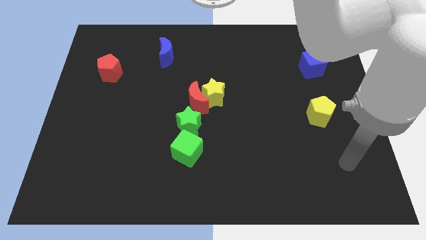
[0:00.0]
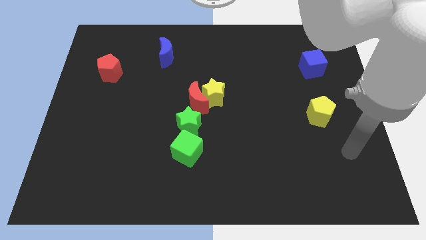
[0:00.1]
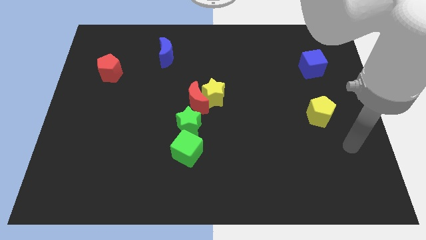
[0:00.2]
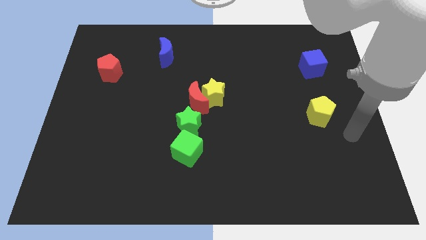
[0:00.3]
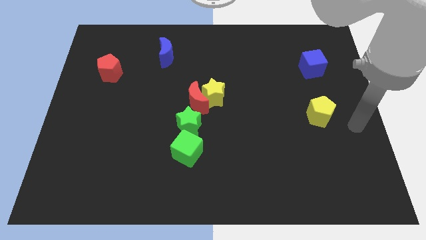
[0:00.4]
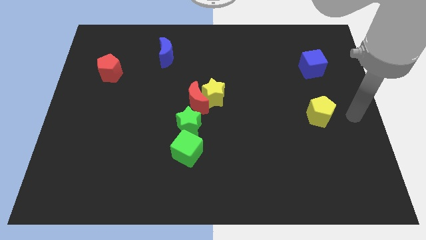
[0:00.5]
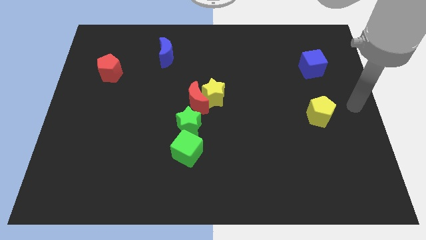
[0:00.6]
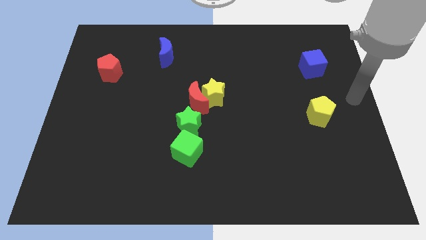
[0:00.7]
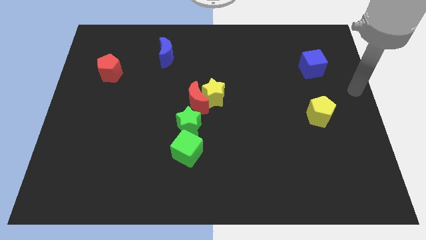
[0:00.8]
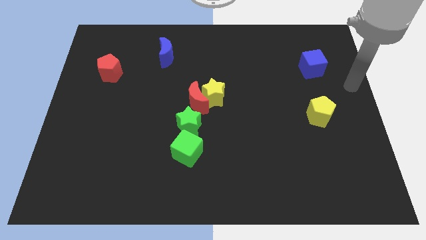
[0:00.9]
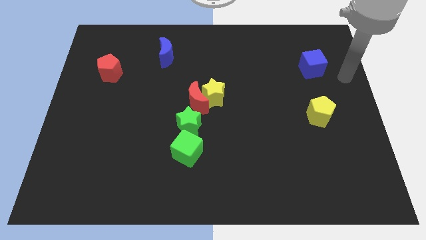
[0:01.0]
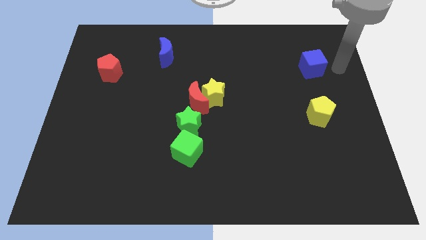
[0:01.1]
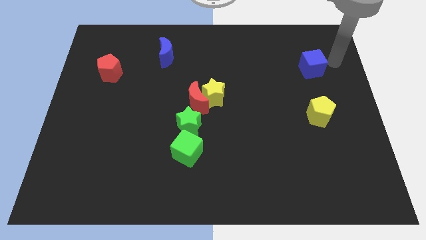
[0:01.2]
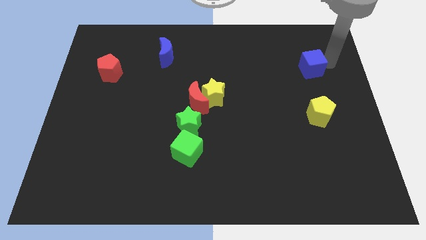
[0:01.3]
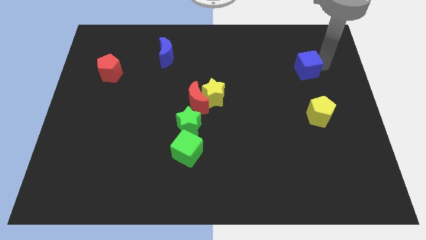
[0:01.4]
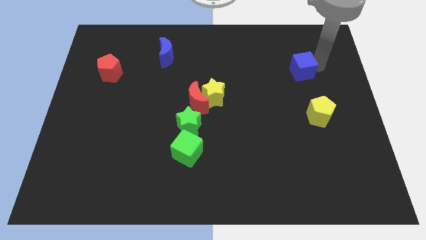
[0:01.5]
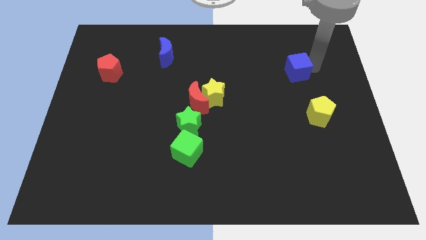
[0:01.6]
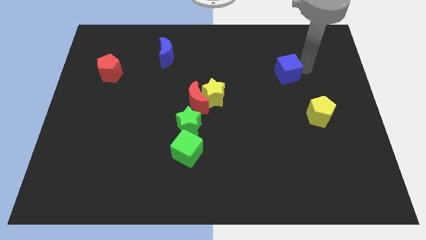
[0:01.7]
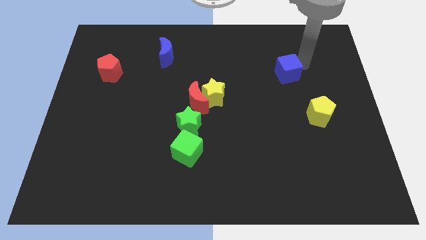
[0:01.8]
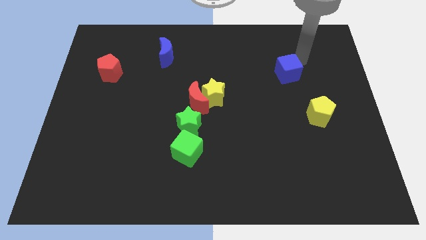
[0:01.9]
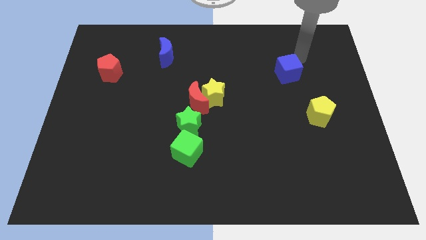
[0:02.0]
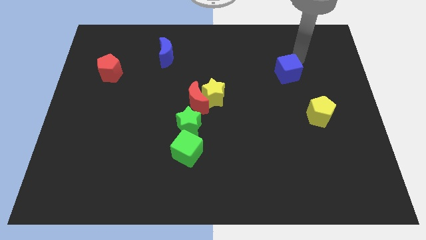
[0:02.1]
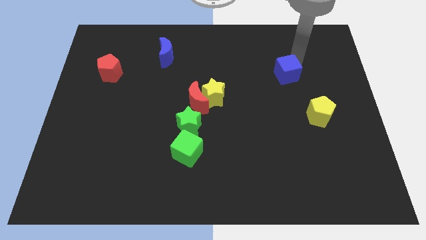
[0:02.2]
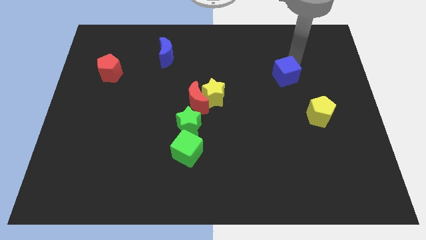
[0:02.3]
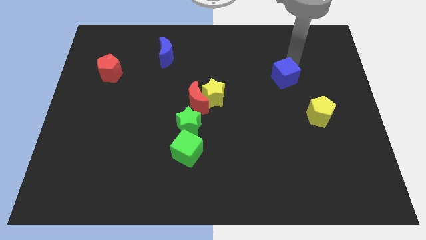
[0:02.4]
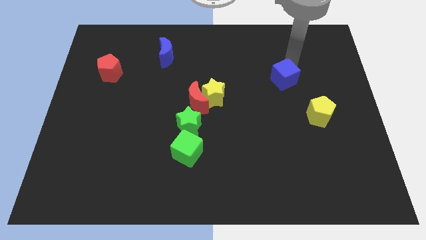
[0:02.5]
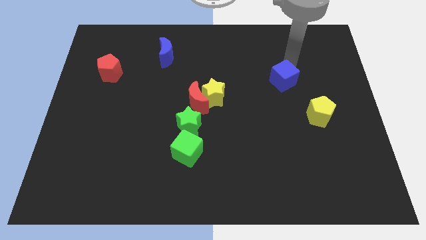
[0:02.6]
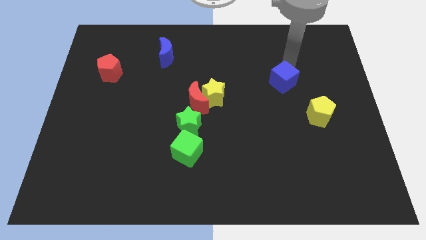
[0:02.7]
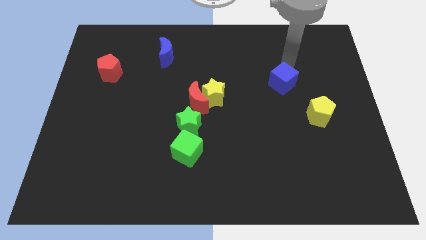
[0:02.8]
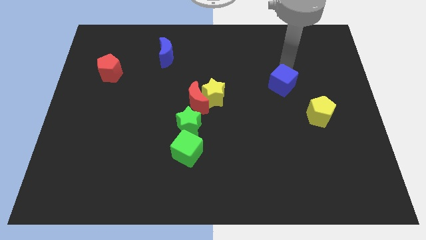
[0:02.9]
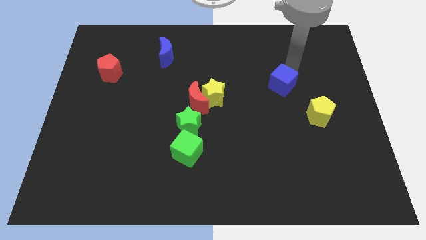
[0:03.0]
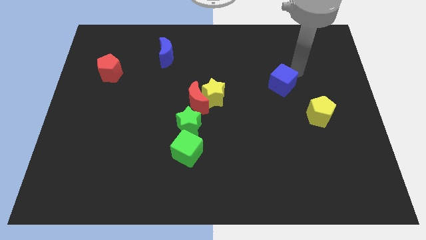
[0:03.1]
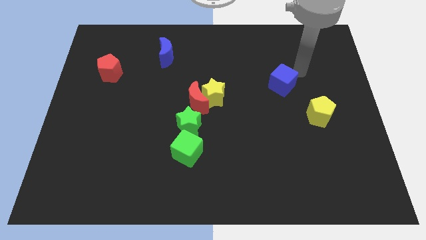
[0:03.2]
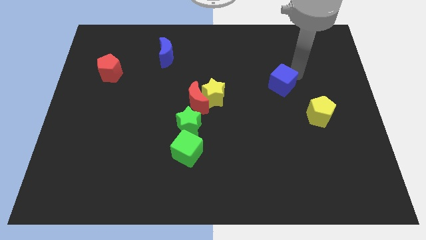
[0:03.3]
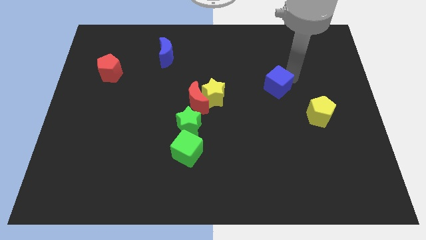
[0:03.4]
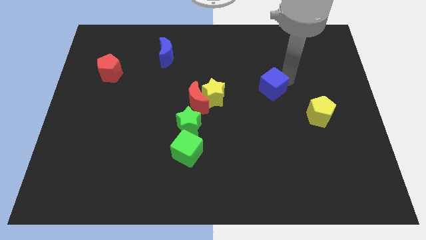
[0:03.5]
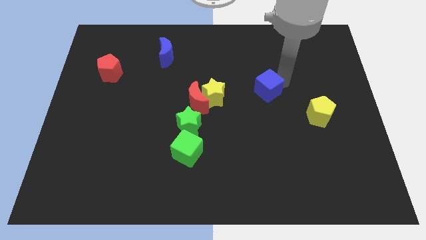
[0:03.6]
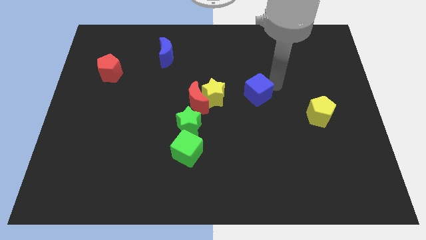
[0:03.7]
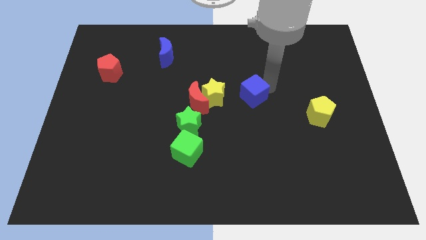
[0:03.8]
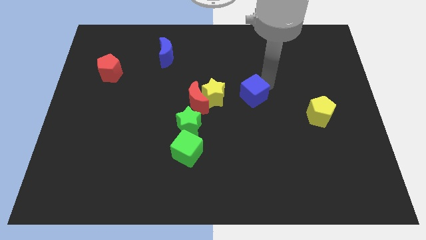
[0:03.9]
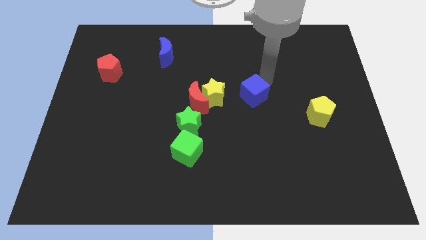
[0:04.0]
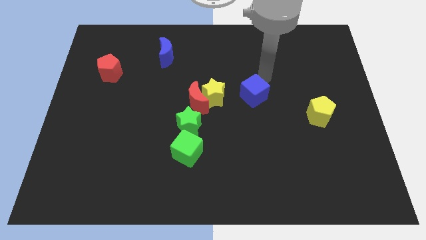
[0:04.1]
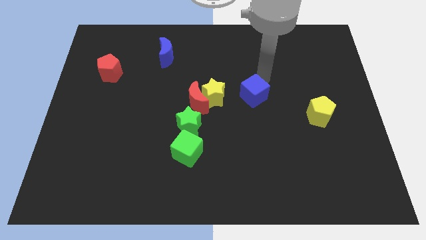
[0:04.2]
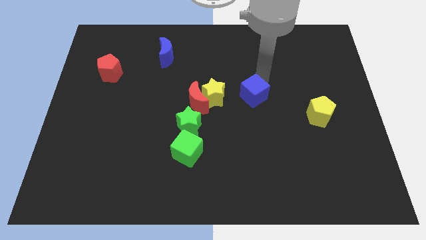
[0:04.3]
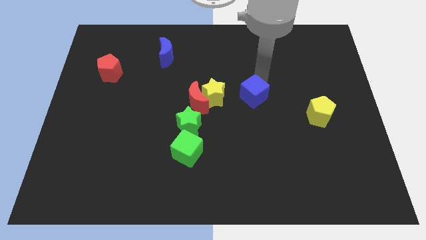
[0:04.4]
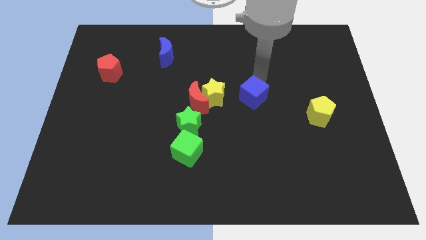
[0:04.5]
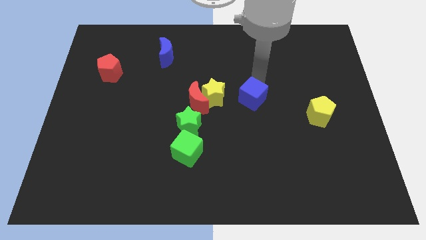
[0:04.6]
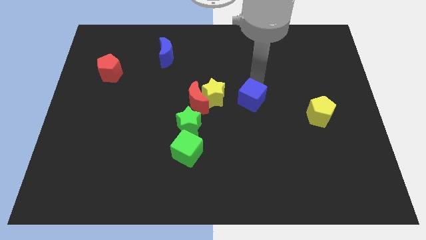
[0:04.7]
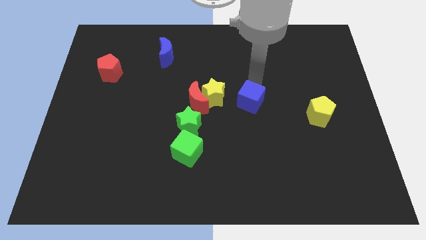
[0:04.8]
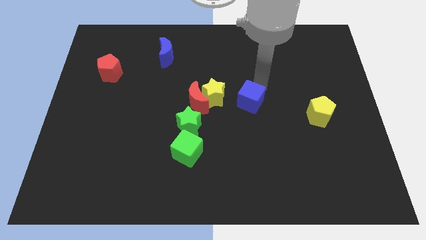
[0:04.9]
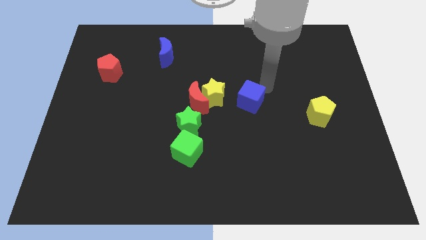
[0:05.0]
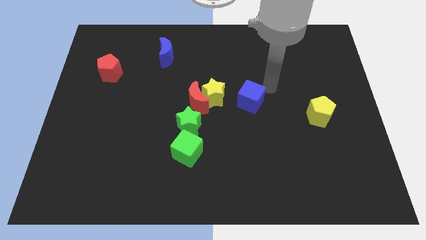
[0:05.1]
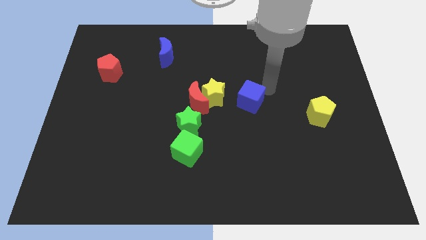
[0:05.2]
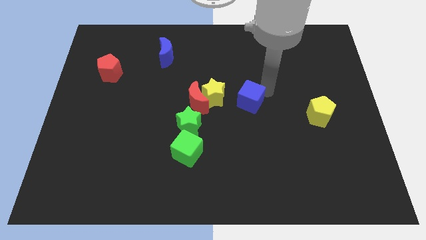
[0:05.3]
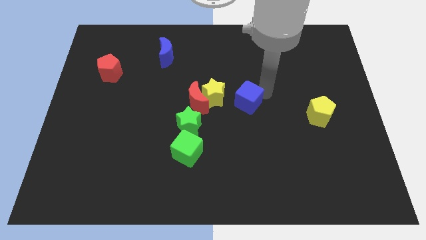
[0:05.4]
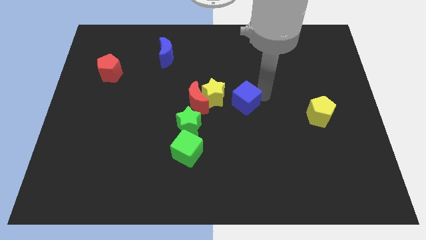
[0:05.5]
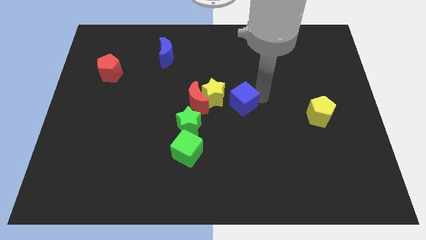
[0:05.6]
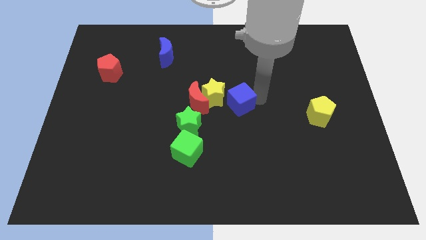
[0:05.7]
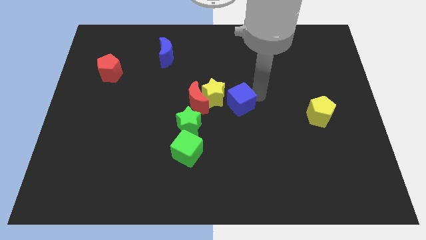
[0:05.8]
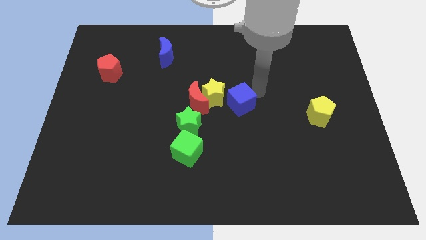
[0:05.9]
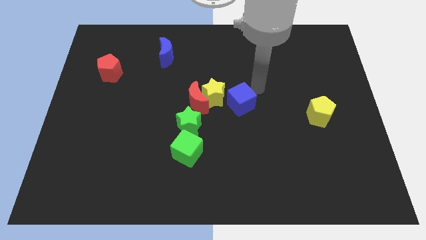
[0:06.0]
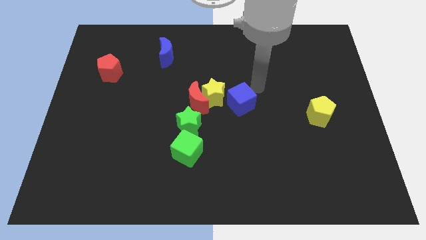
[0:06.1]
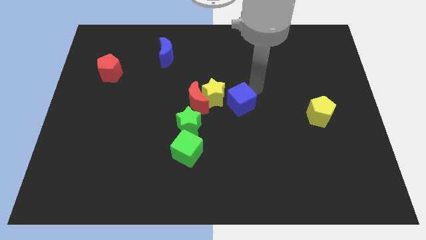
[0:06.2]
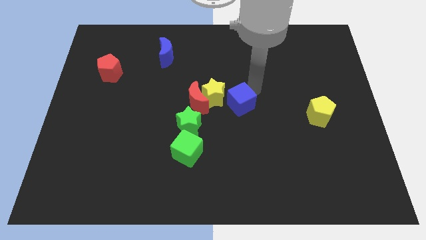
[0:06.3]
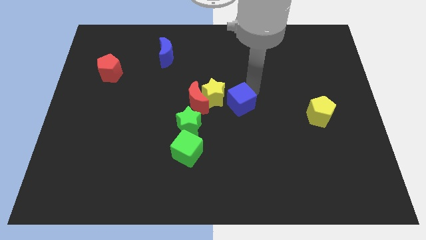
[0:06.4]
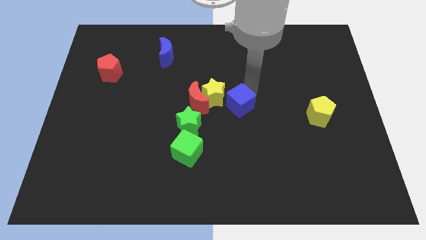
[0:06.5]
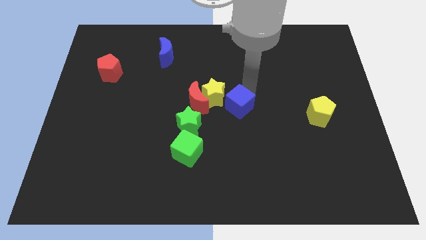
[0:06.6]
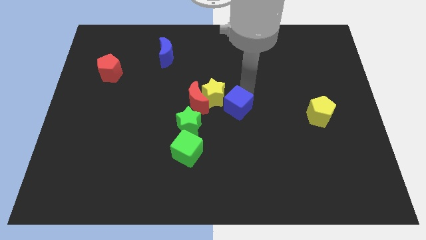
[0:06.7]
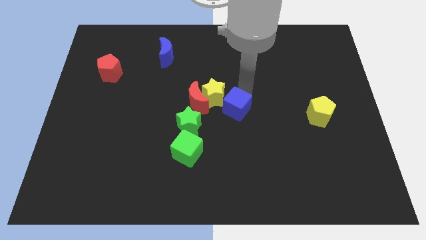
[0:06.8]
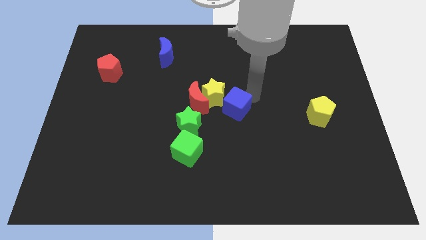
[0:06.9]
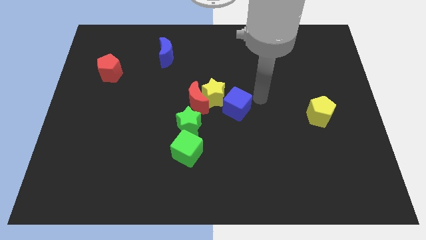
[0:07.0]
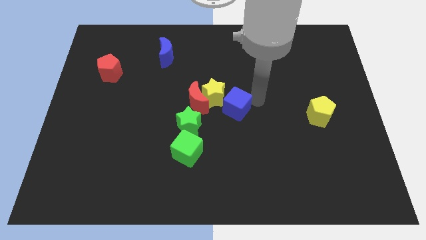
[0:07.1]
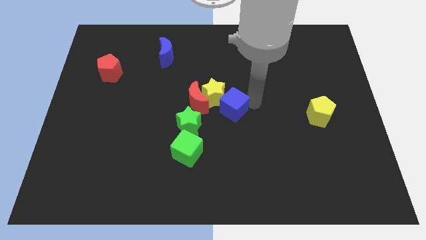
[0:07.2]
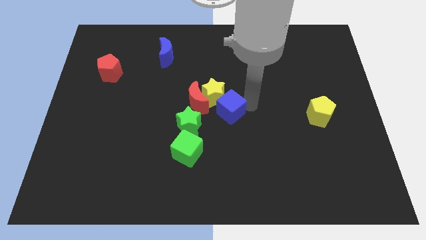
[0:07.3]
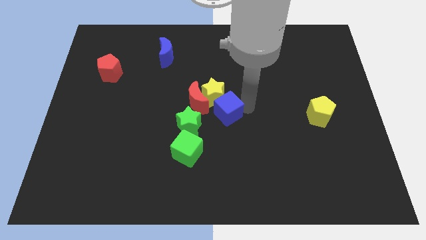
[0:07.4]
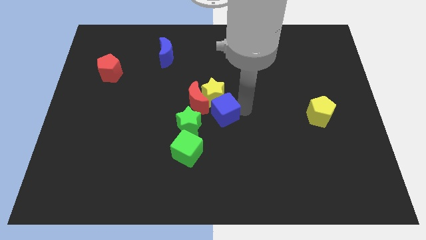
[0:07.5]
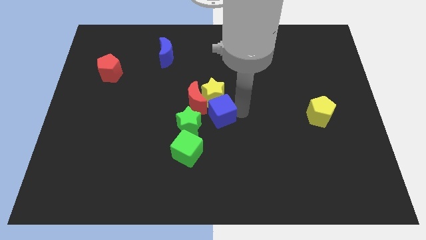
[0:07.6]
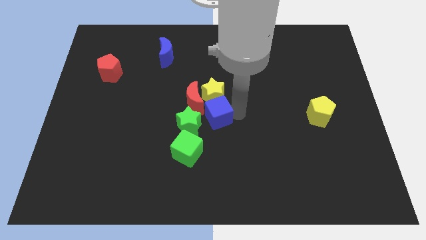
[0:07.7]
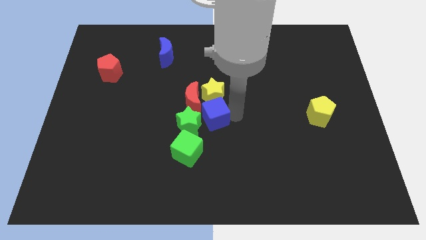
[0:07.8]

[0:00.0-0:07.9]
move the blue cube towards the green star
